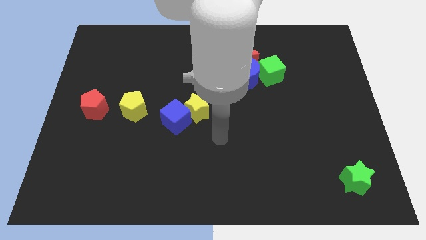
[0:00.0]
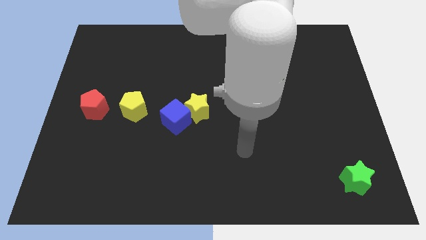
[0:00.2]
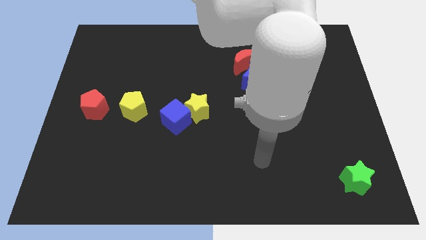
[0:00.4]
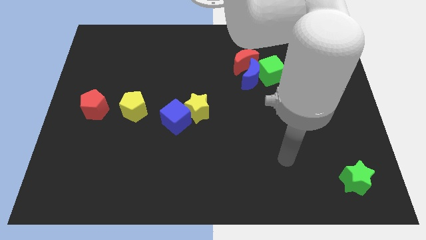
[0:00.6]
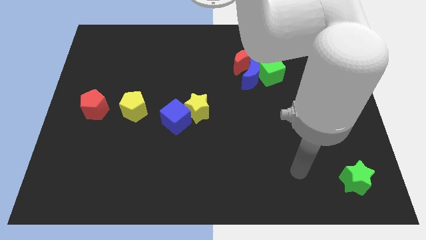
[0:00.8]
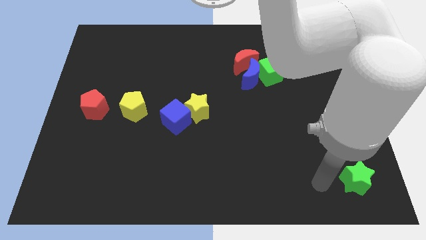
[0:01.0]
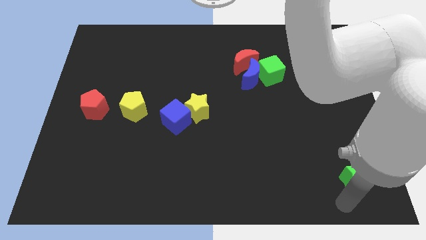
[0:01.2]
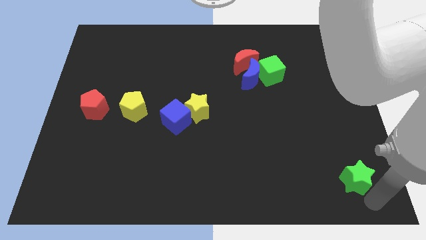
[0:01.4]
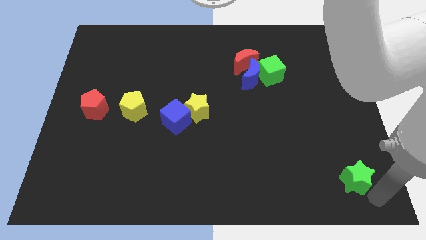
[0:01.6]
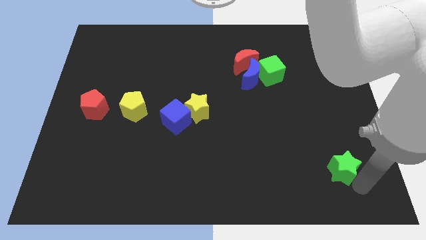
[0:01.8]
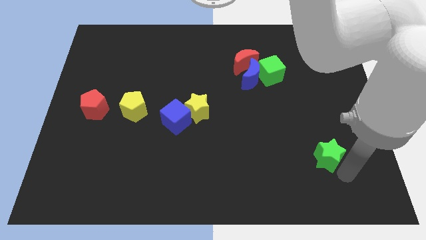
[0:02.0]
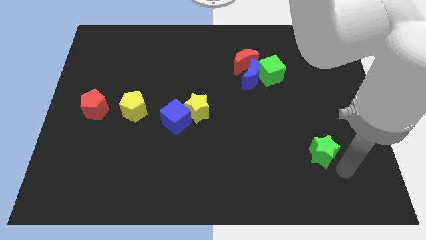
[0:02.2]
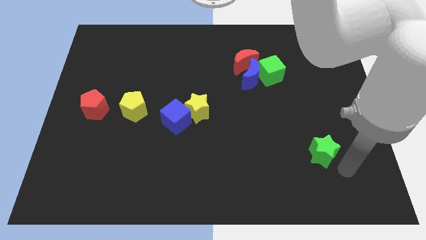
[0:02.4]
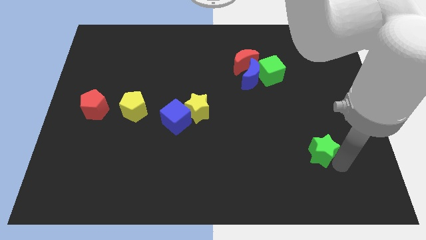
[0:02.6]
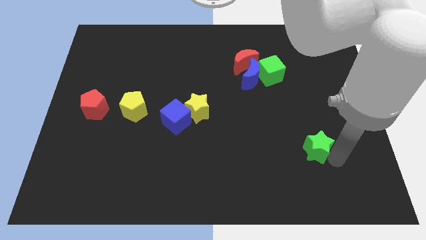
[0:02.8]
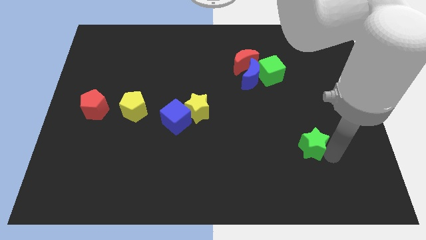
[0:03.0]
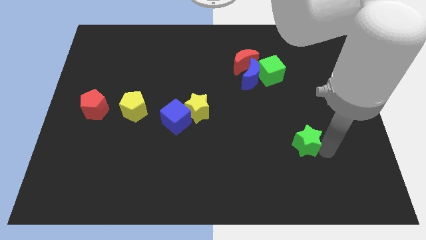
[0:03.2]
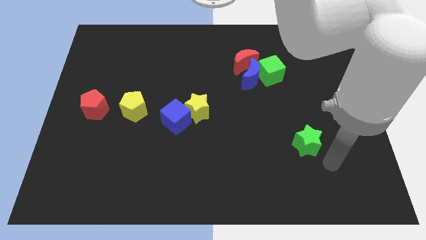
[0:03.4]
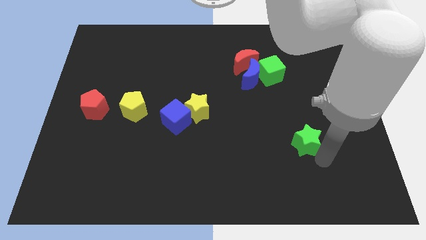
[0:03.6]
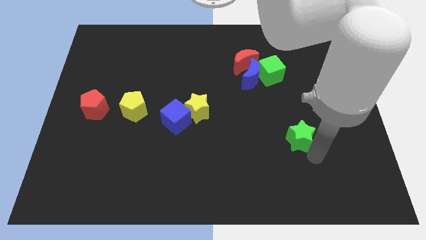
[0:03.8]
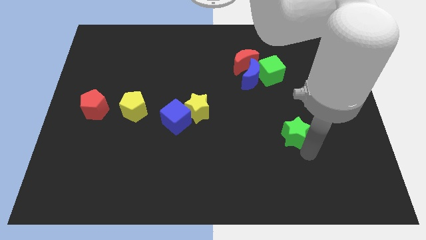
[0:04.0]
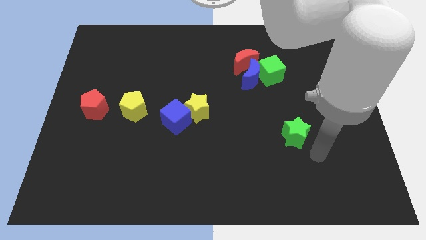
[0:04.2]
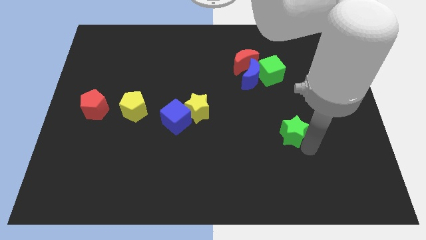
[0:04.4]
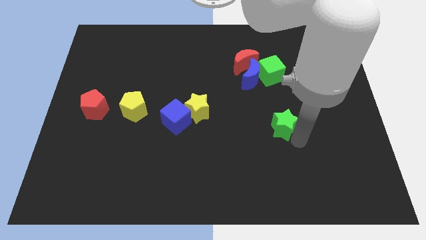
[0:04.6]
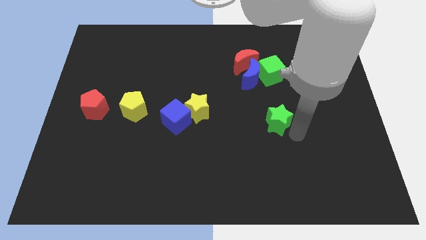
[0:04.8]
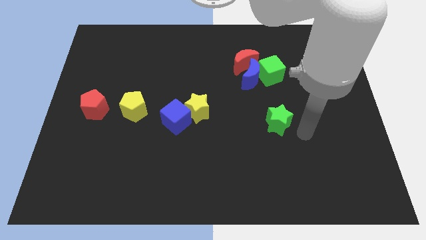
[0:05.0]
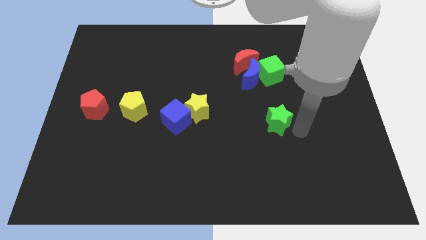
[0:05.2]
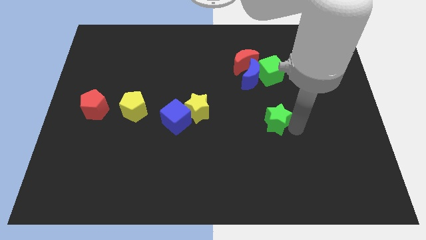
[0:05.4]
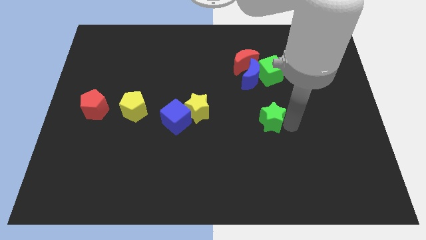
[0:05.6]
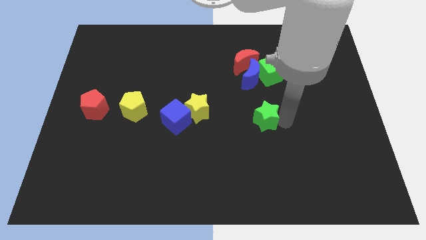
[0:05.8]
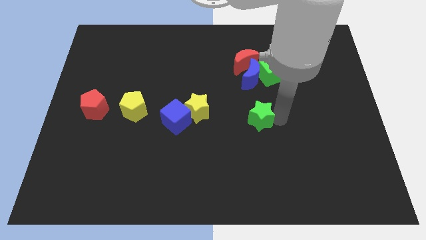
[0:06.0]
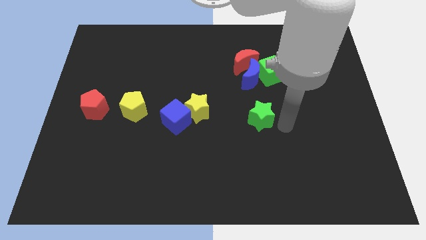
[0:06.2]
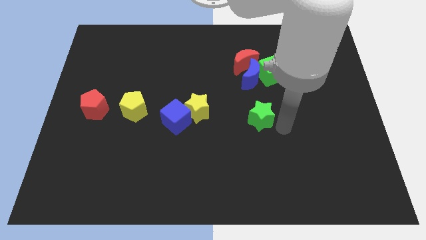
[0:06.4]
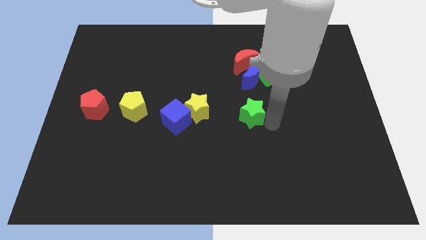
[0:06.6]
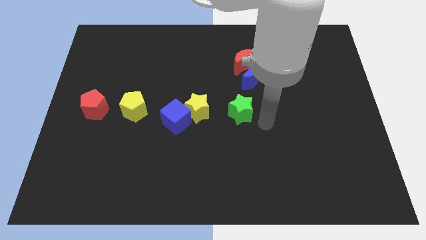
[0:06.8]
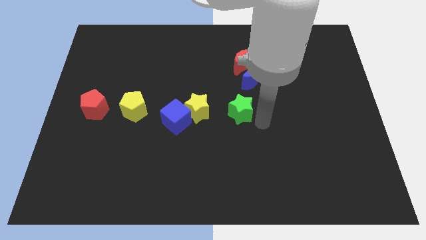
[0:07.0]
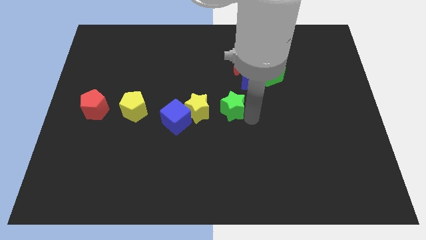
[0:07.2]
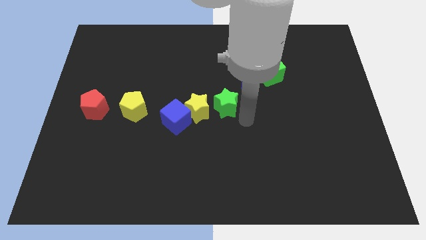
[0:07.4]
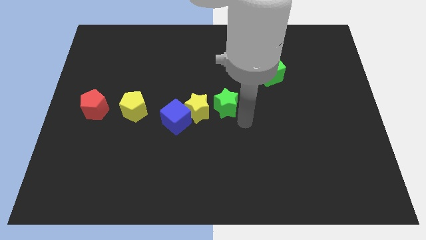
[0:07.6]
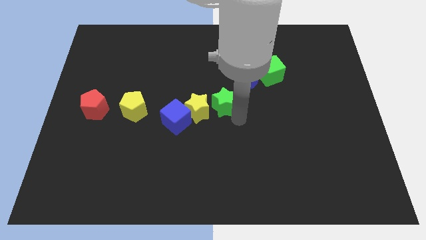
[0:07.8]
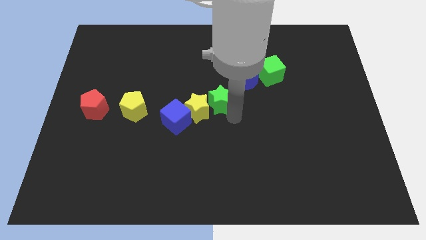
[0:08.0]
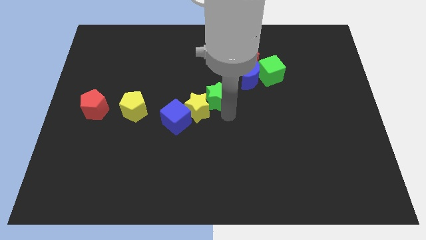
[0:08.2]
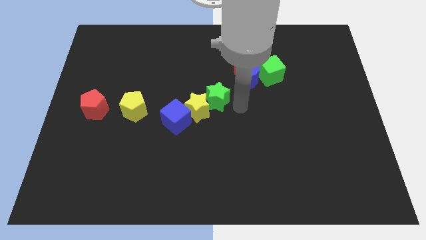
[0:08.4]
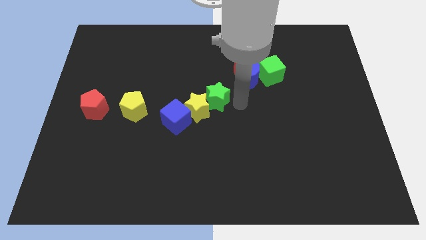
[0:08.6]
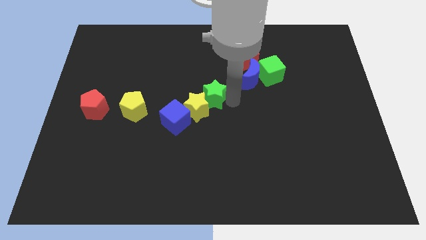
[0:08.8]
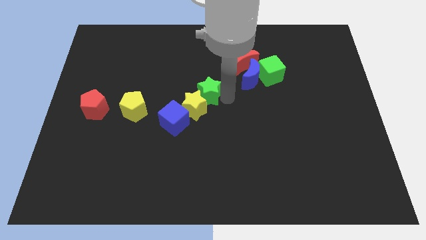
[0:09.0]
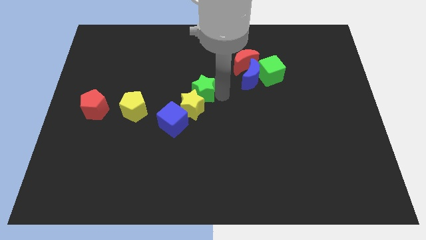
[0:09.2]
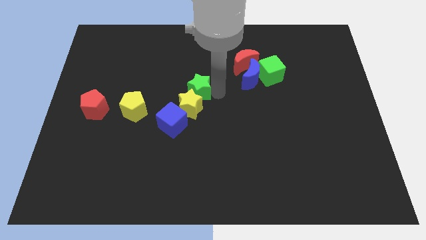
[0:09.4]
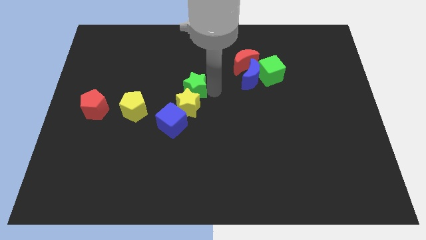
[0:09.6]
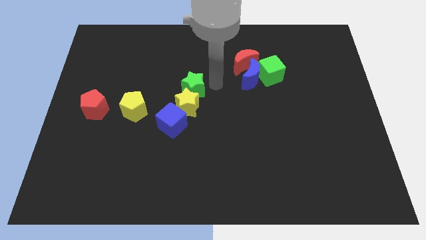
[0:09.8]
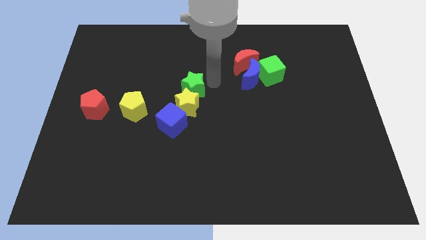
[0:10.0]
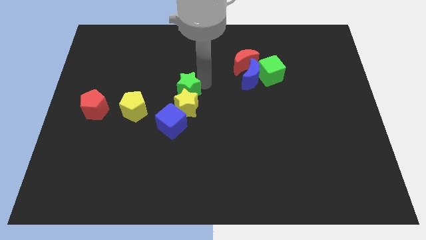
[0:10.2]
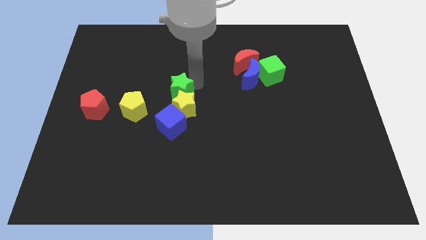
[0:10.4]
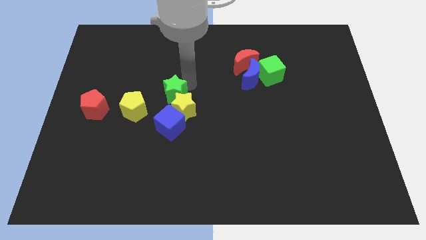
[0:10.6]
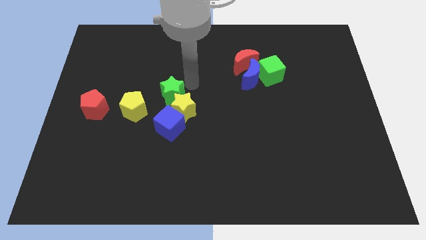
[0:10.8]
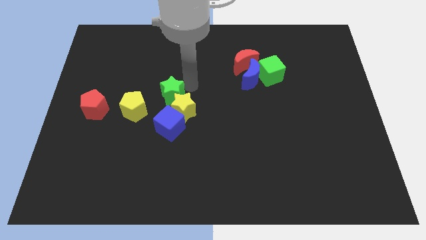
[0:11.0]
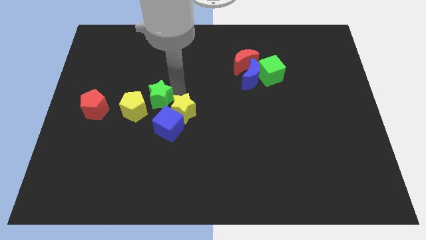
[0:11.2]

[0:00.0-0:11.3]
push the green star to the top left of the blue cube

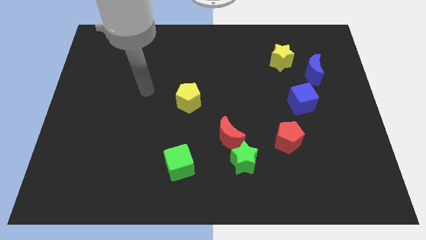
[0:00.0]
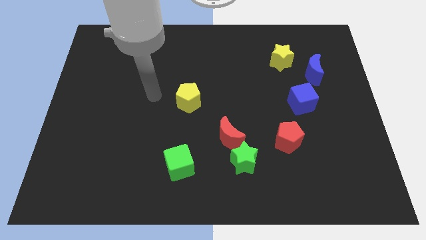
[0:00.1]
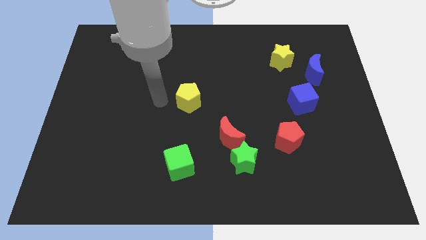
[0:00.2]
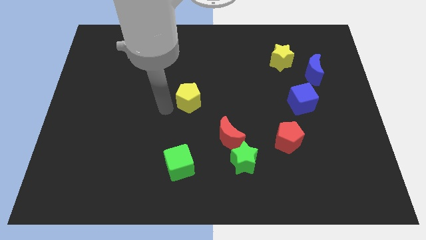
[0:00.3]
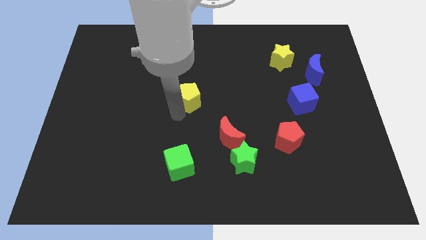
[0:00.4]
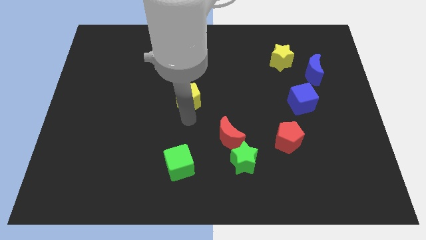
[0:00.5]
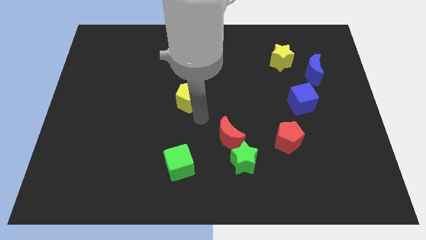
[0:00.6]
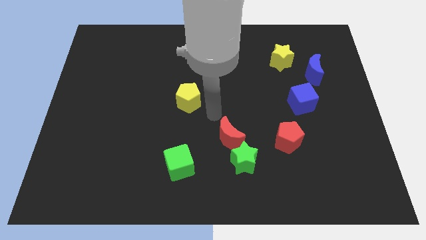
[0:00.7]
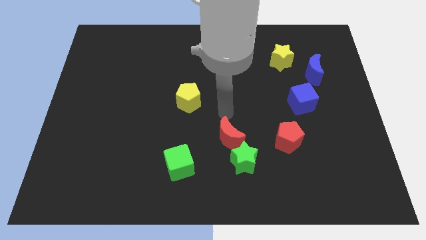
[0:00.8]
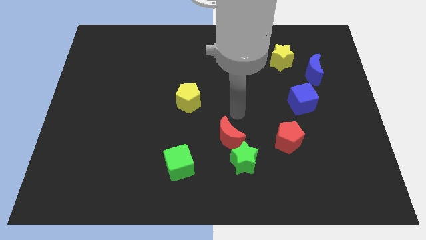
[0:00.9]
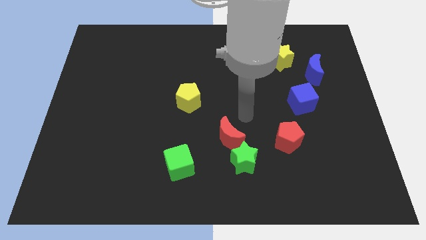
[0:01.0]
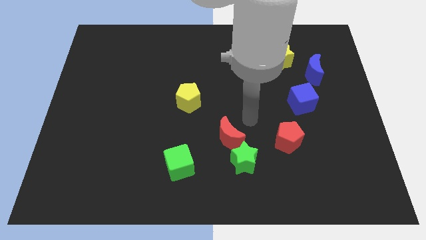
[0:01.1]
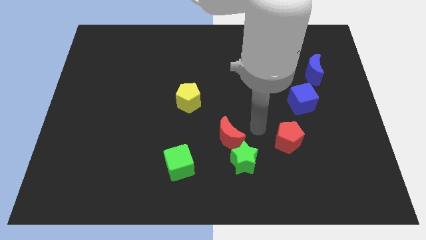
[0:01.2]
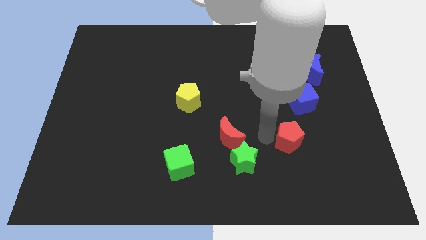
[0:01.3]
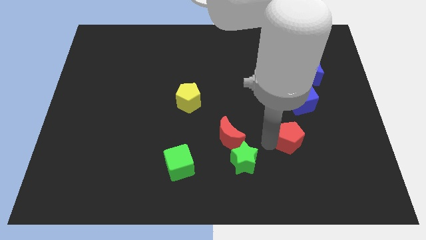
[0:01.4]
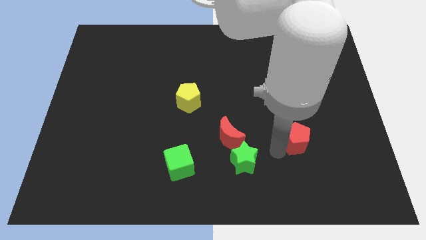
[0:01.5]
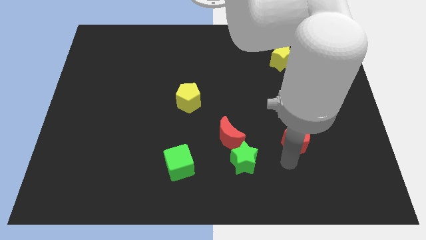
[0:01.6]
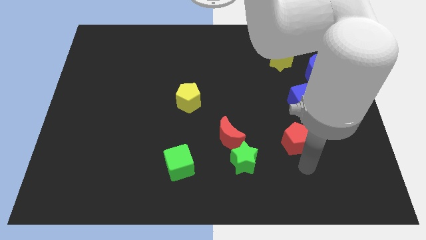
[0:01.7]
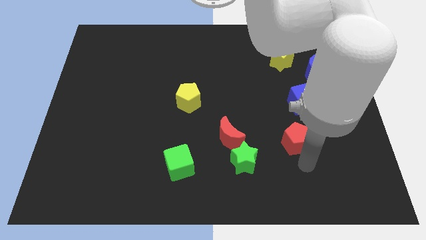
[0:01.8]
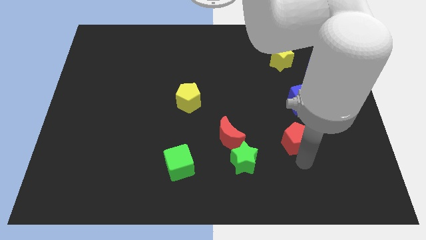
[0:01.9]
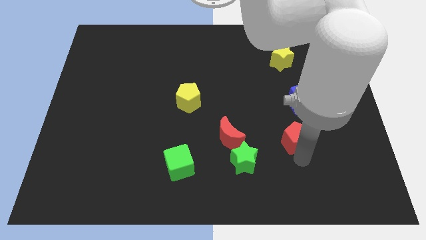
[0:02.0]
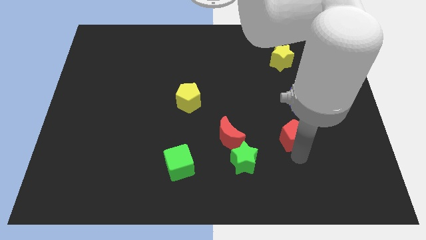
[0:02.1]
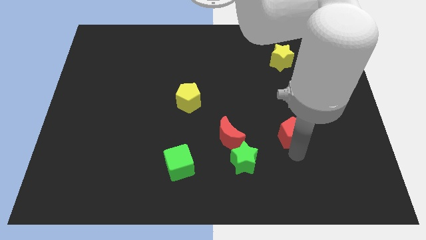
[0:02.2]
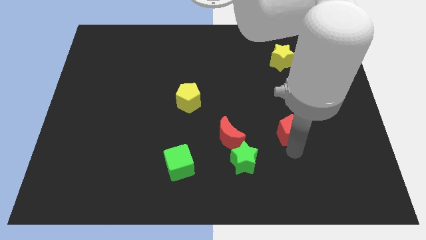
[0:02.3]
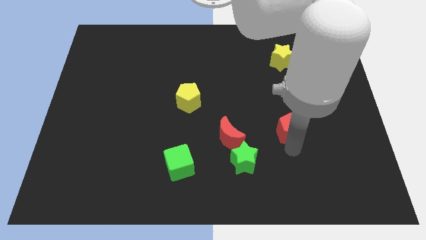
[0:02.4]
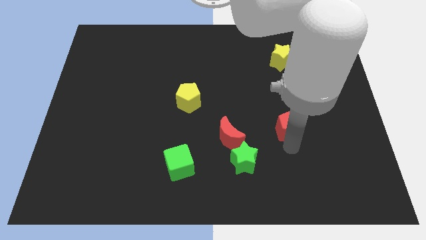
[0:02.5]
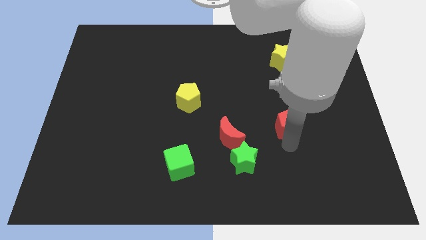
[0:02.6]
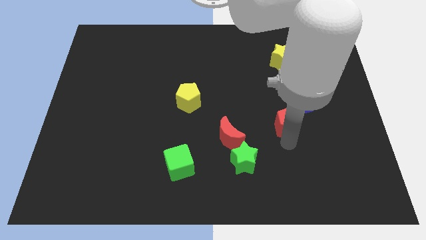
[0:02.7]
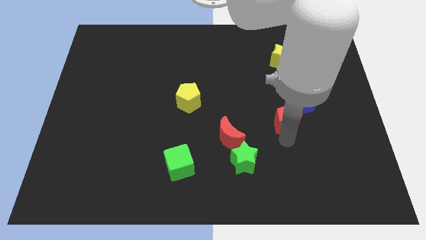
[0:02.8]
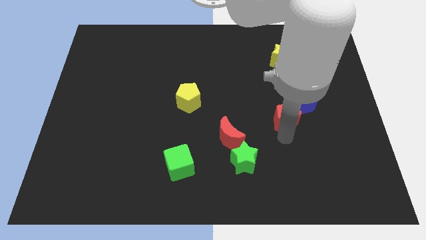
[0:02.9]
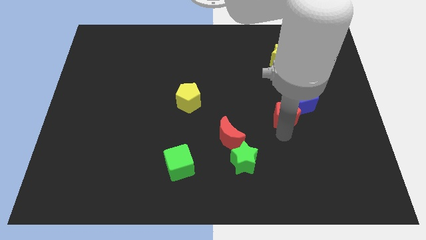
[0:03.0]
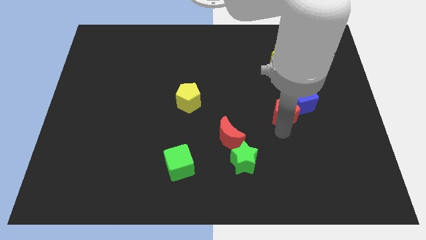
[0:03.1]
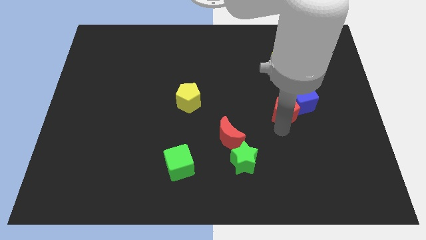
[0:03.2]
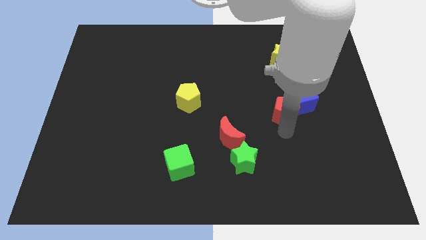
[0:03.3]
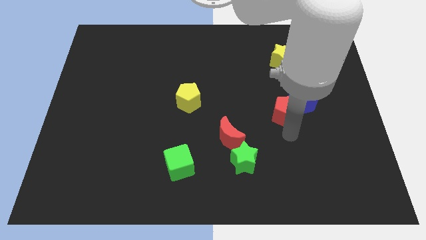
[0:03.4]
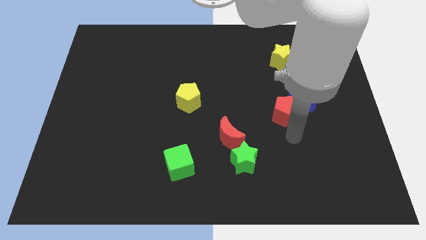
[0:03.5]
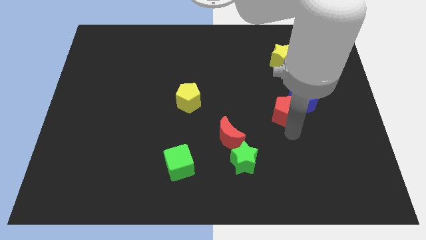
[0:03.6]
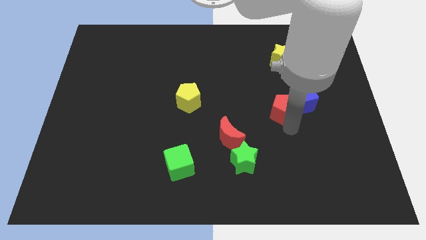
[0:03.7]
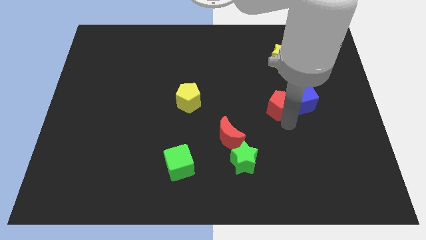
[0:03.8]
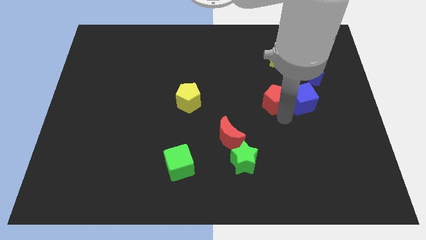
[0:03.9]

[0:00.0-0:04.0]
put the red pentagon diagonally up and to the left of the blue cube
